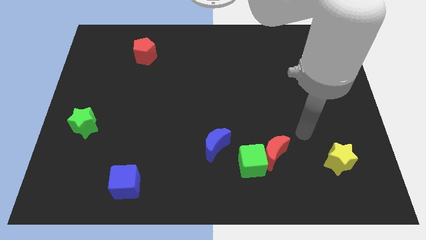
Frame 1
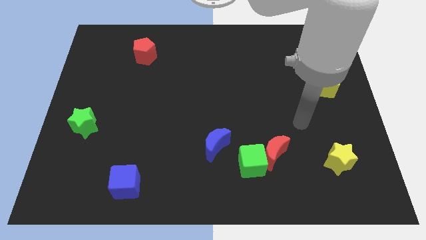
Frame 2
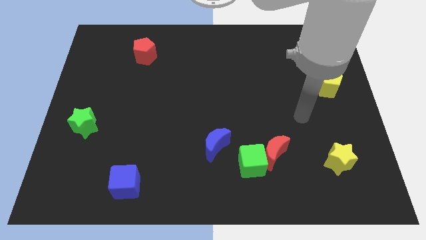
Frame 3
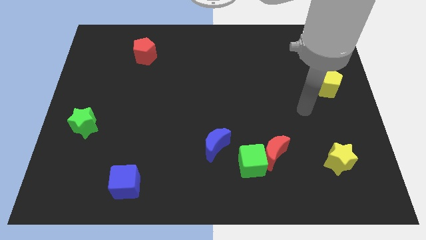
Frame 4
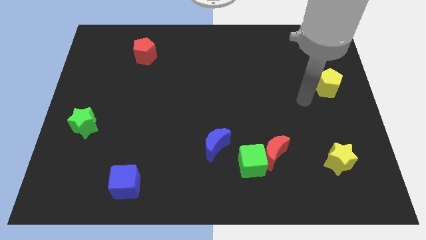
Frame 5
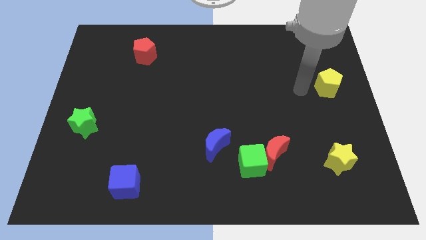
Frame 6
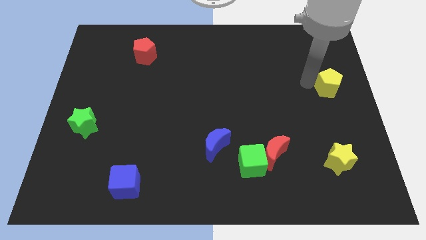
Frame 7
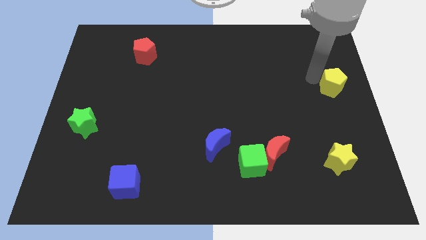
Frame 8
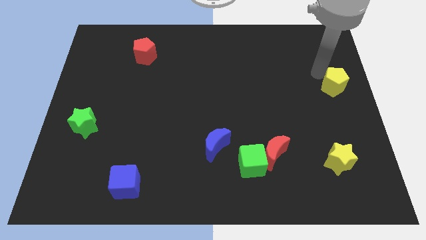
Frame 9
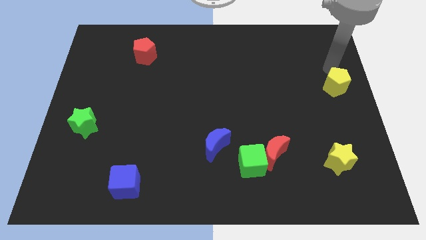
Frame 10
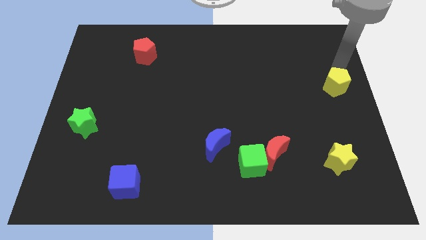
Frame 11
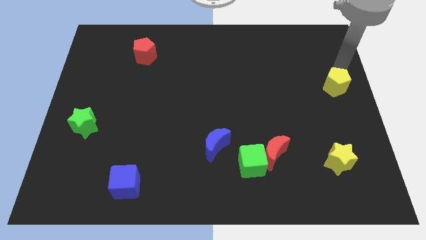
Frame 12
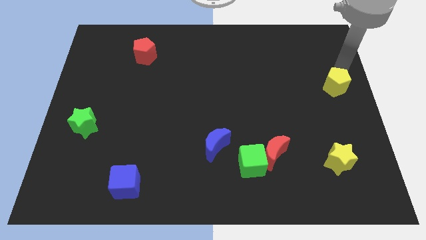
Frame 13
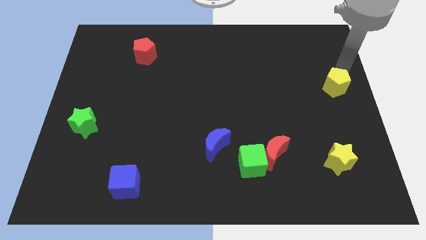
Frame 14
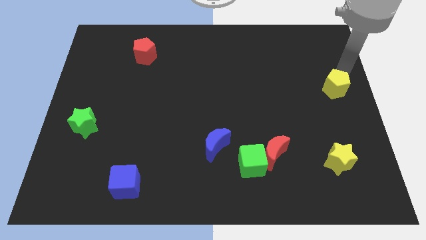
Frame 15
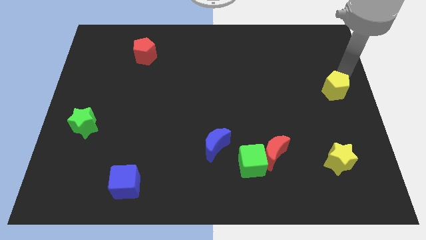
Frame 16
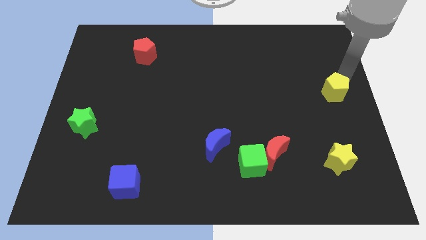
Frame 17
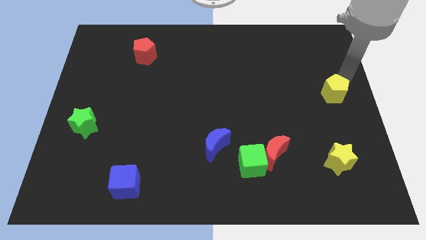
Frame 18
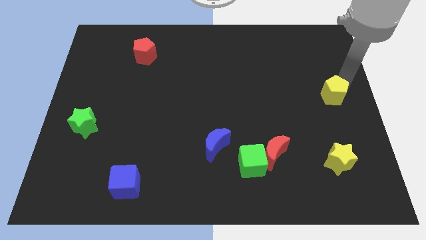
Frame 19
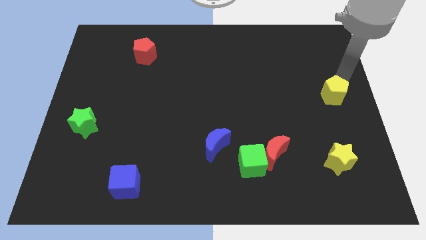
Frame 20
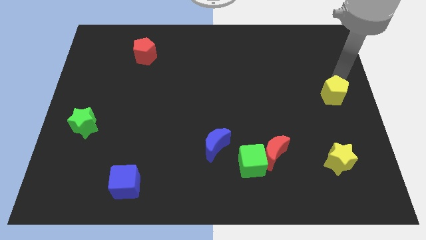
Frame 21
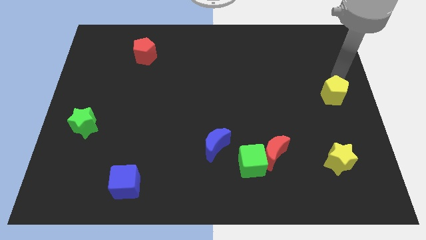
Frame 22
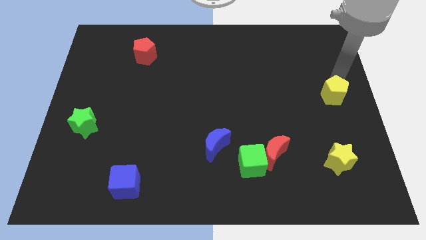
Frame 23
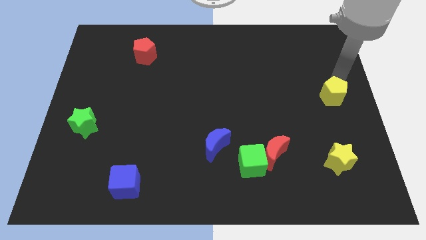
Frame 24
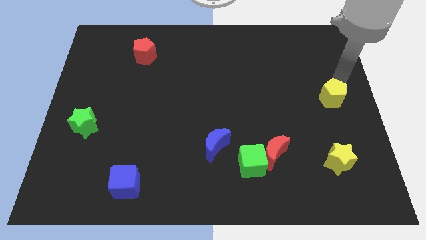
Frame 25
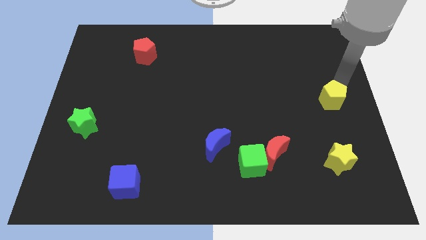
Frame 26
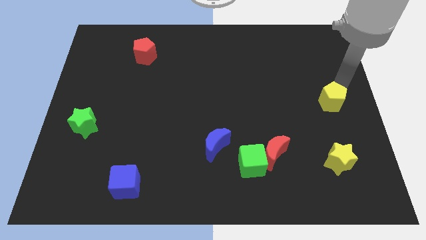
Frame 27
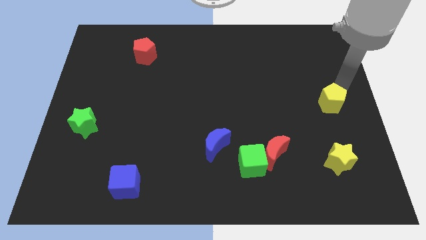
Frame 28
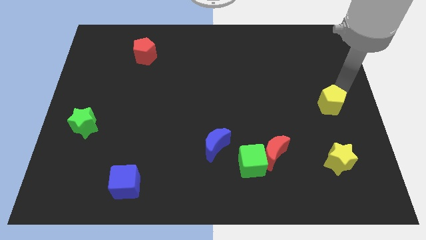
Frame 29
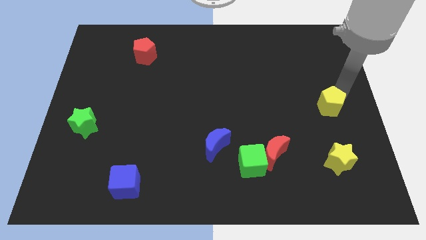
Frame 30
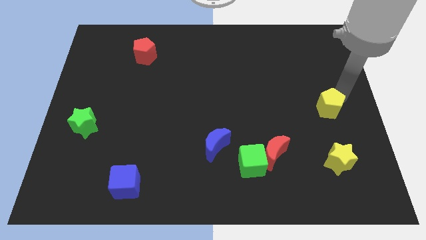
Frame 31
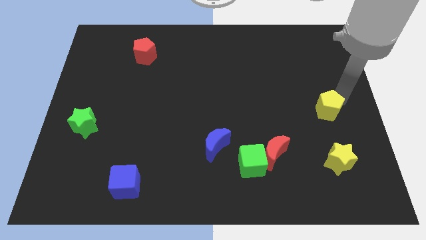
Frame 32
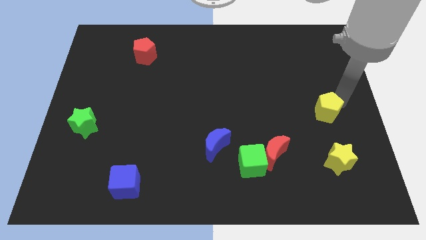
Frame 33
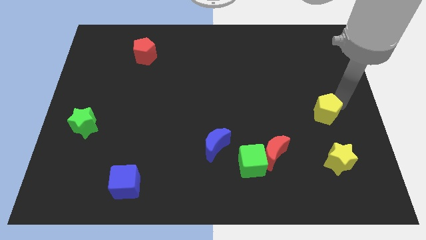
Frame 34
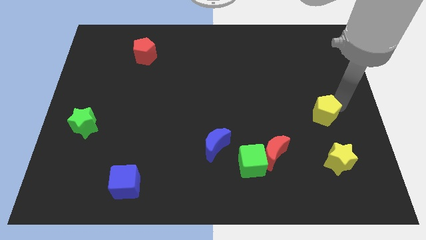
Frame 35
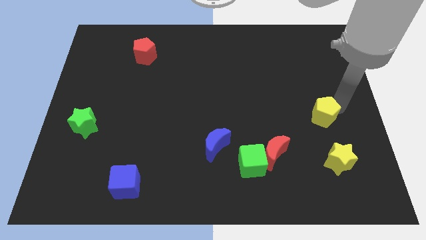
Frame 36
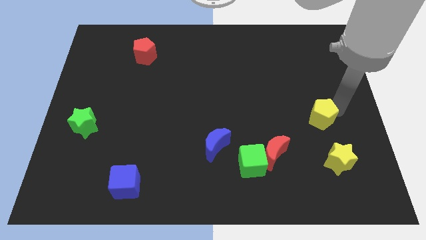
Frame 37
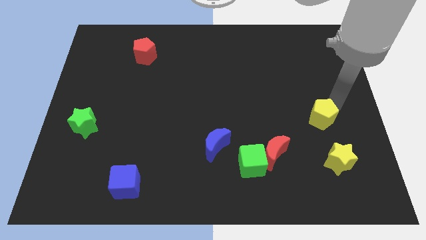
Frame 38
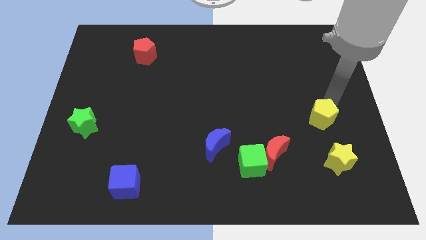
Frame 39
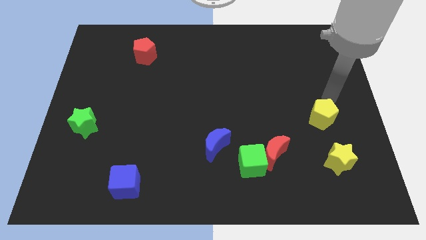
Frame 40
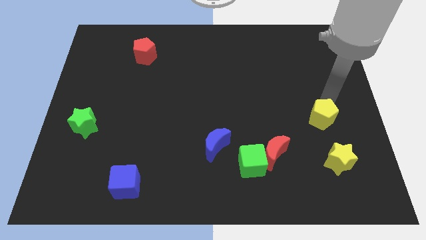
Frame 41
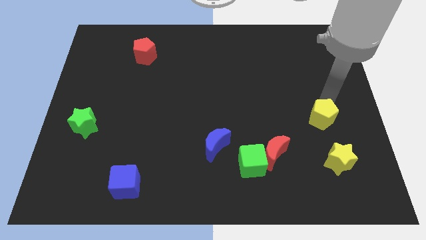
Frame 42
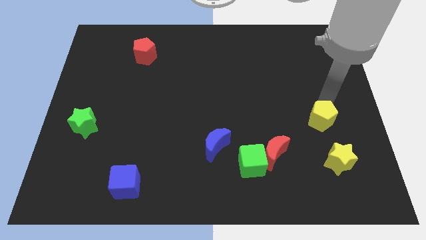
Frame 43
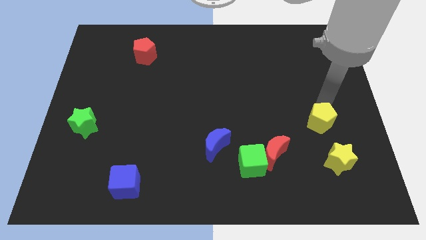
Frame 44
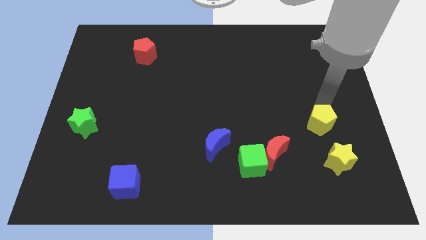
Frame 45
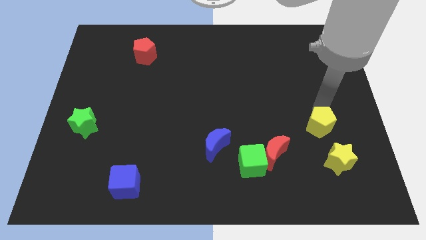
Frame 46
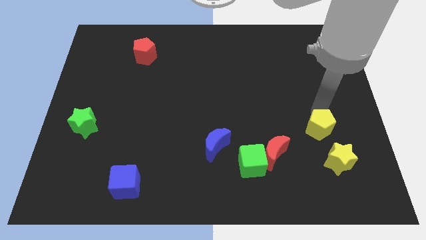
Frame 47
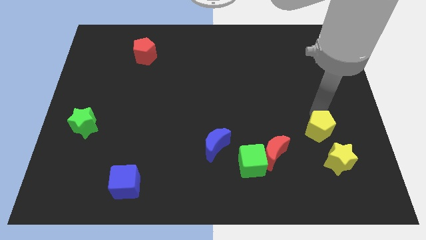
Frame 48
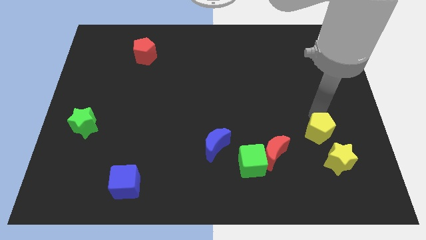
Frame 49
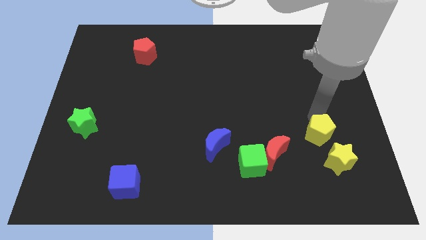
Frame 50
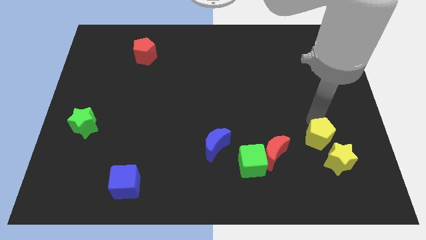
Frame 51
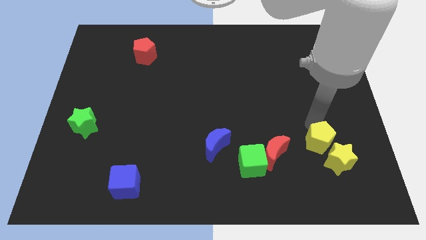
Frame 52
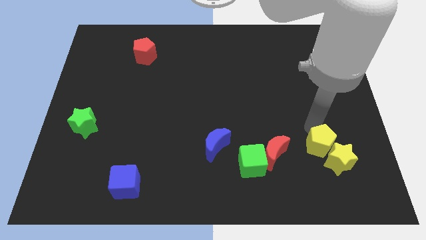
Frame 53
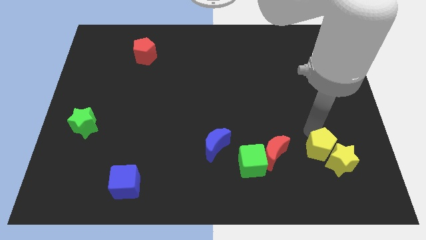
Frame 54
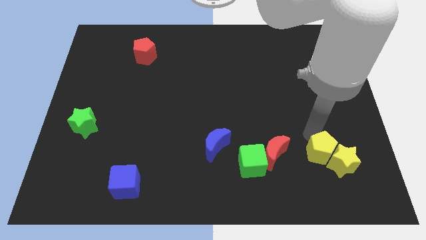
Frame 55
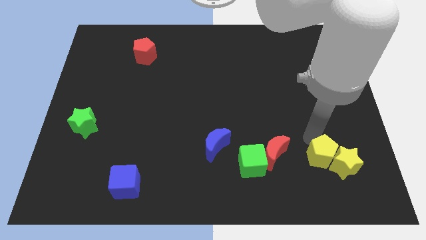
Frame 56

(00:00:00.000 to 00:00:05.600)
push the yellow pentagon to the bottom left of the yellow star

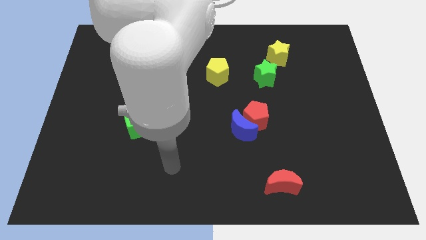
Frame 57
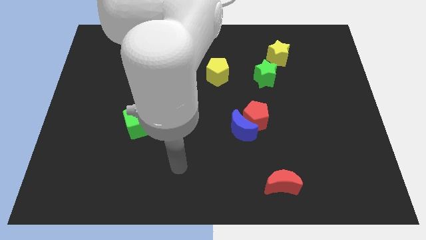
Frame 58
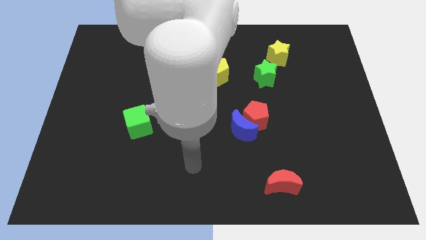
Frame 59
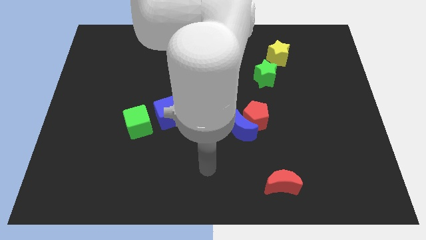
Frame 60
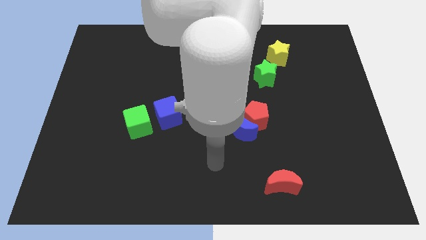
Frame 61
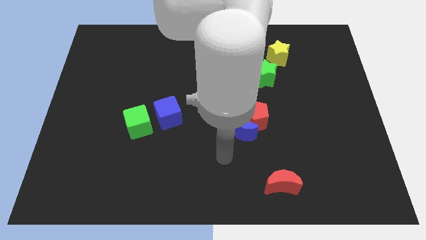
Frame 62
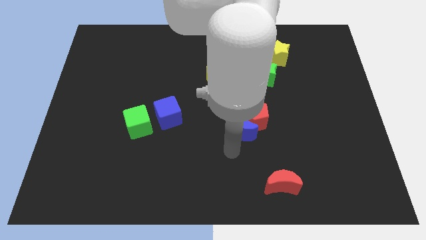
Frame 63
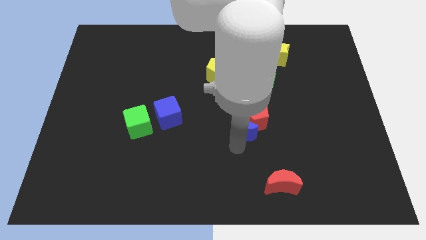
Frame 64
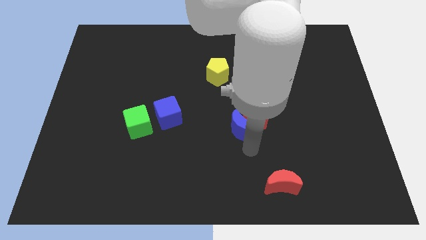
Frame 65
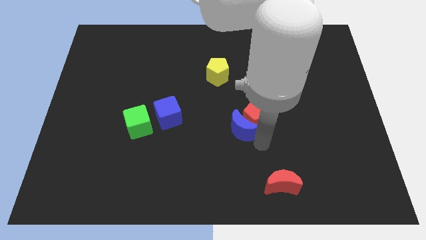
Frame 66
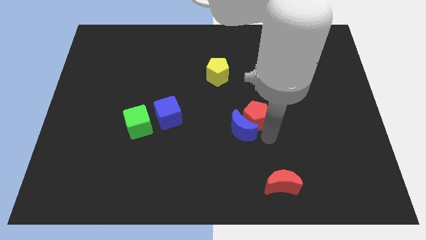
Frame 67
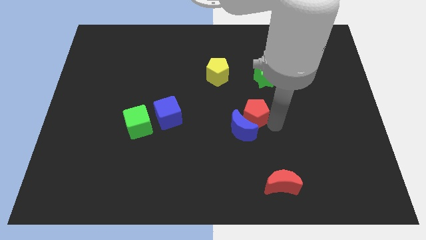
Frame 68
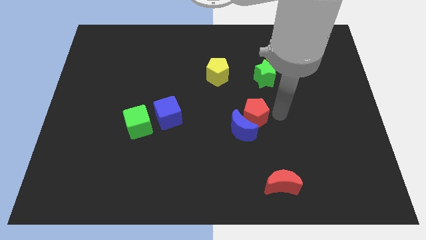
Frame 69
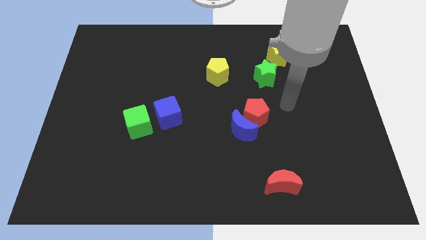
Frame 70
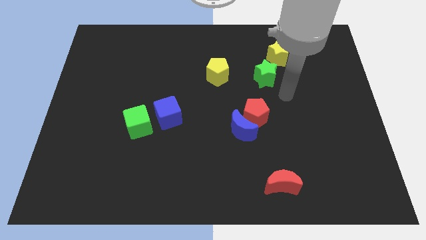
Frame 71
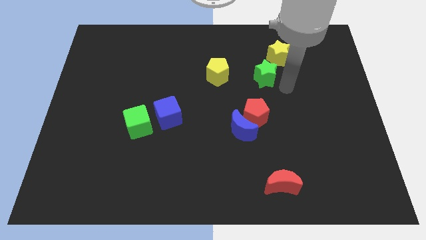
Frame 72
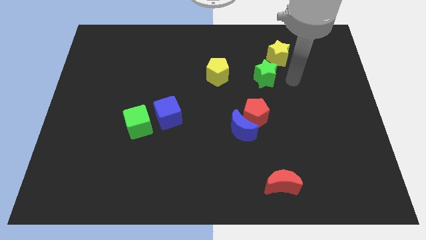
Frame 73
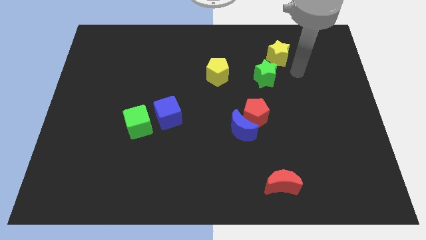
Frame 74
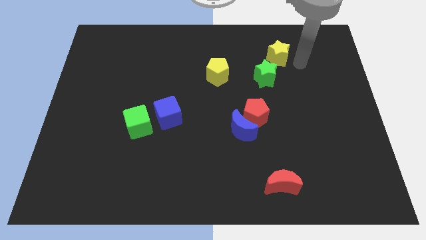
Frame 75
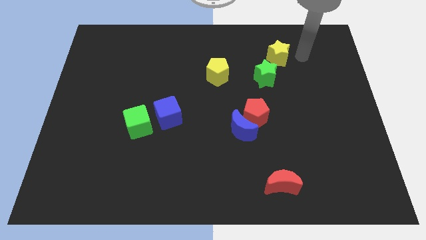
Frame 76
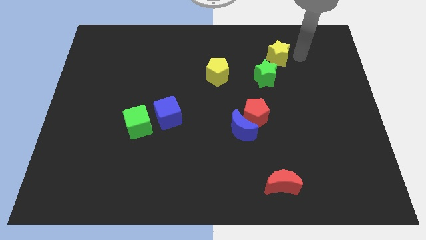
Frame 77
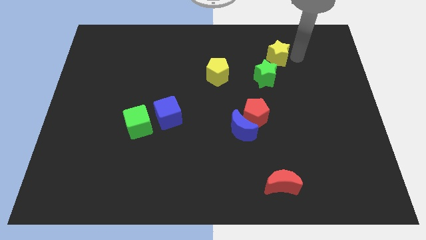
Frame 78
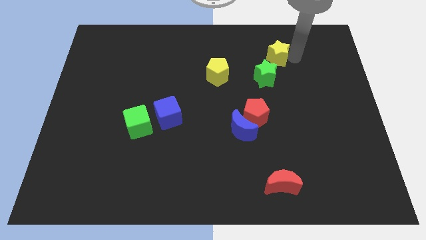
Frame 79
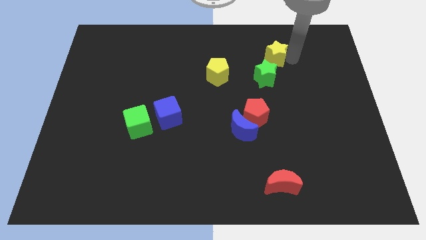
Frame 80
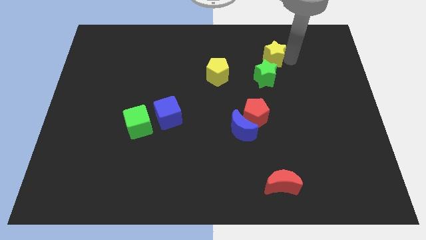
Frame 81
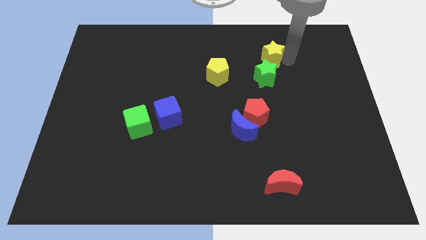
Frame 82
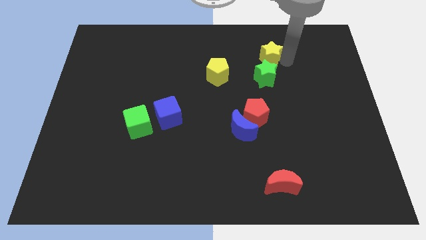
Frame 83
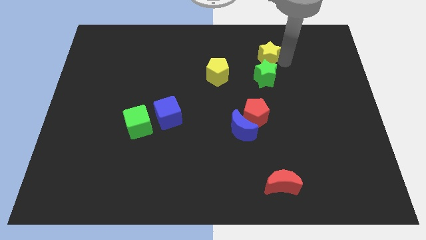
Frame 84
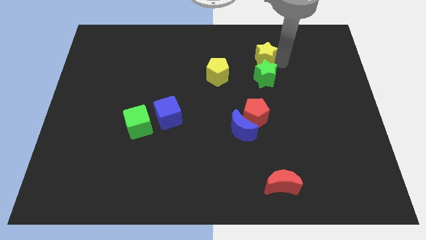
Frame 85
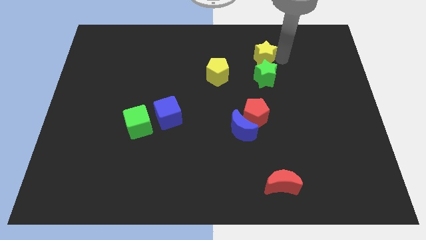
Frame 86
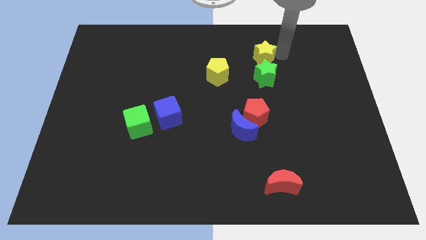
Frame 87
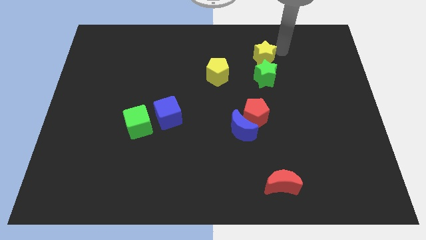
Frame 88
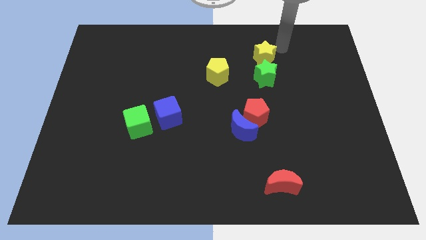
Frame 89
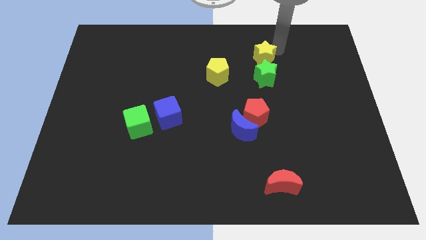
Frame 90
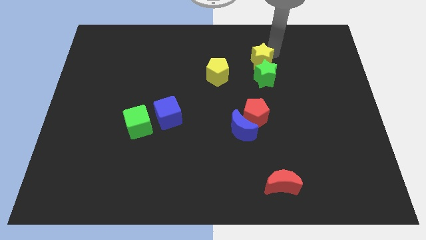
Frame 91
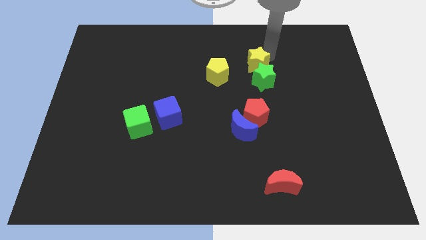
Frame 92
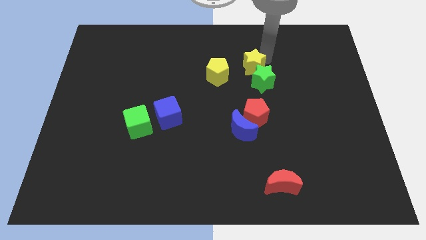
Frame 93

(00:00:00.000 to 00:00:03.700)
slide the yellow star to the top of the red pentagon
